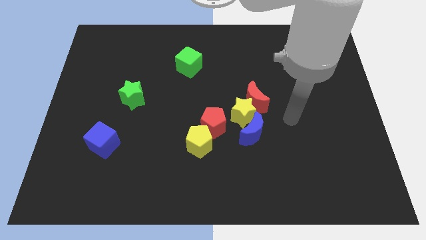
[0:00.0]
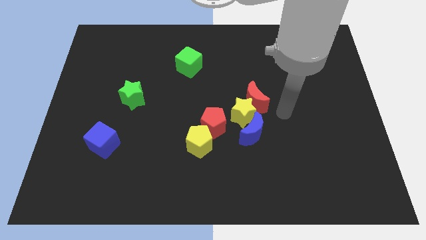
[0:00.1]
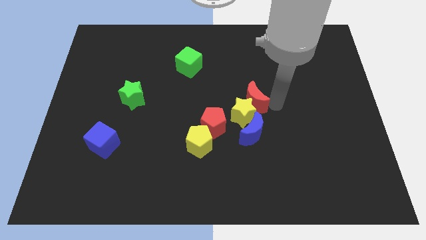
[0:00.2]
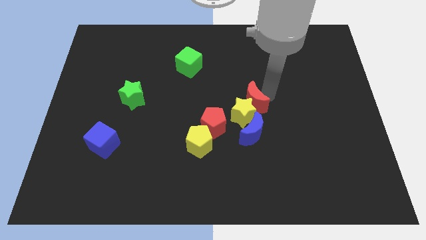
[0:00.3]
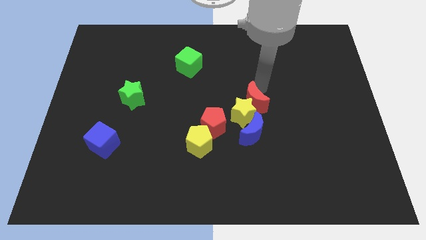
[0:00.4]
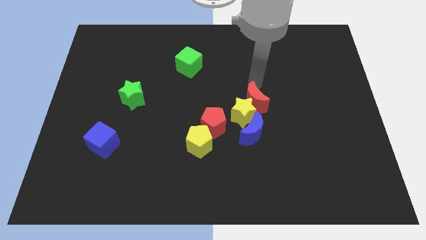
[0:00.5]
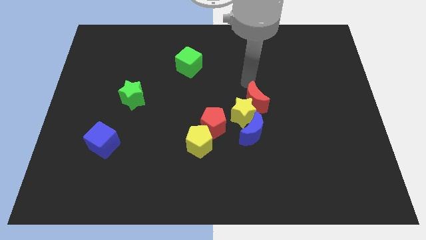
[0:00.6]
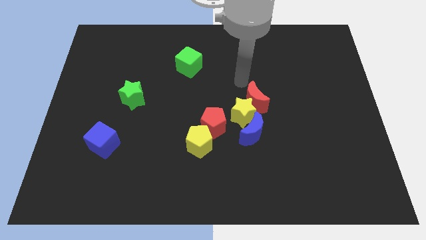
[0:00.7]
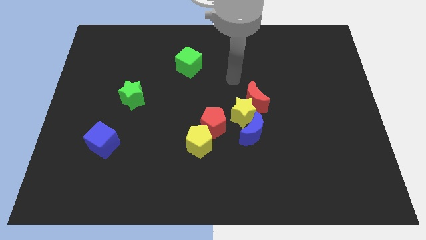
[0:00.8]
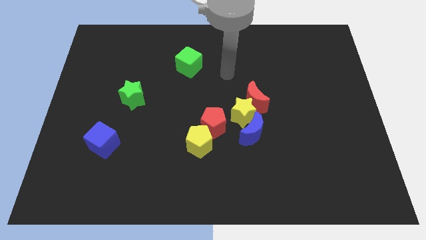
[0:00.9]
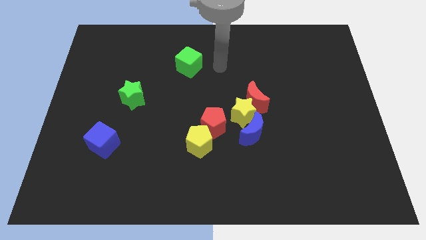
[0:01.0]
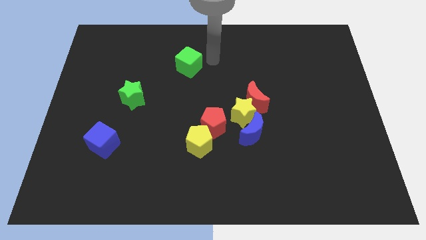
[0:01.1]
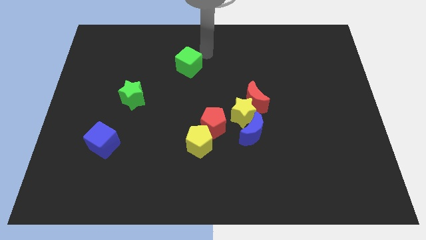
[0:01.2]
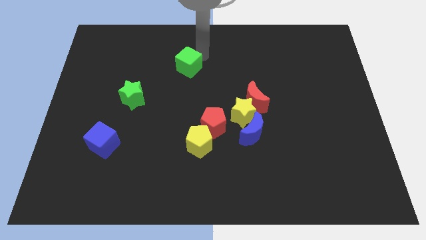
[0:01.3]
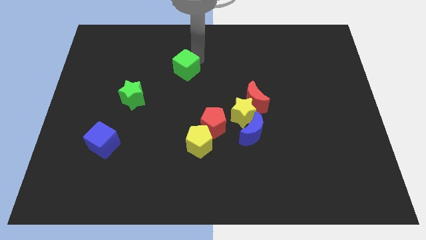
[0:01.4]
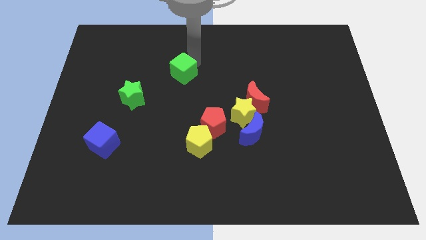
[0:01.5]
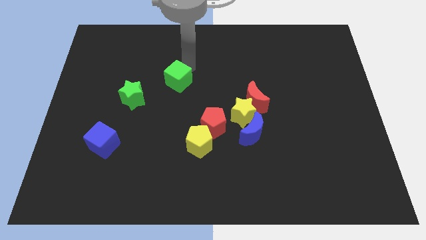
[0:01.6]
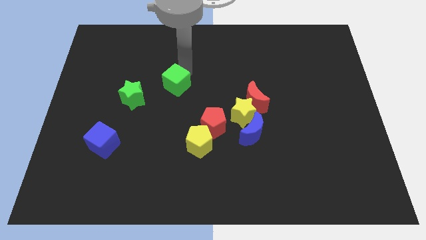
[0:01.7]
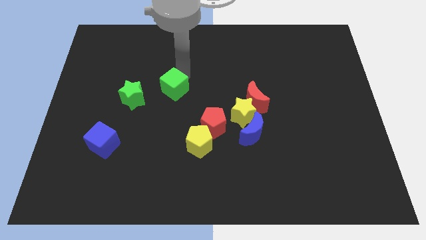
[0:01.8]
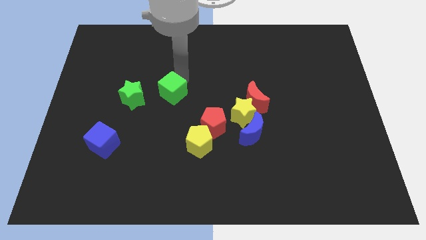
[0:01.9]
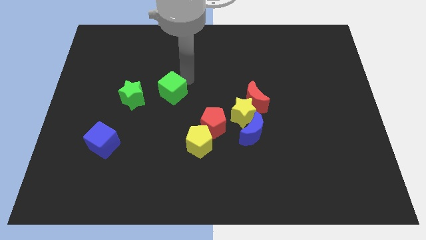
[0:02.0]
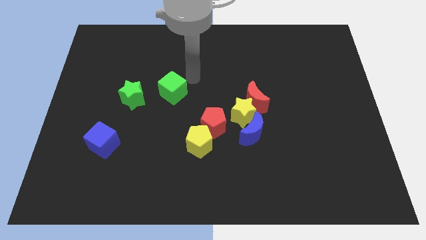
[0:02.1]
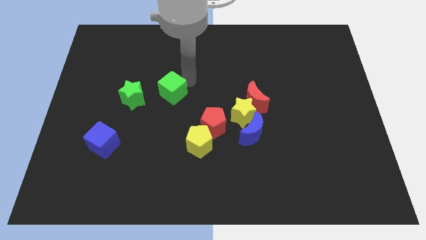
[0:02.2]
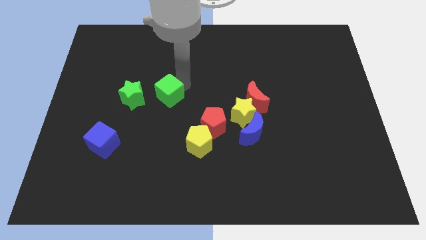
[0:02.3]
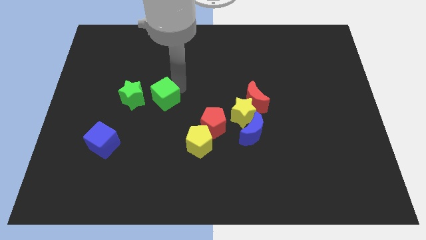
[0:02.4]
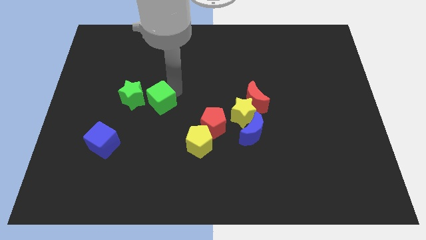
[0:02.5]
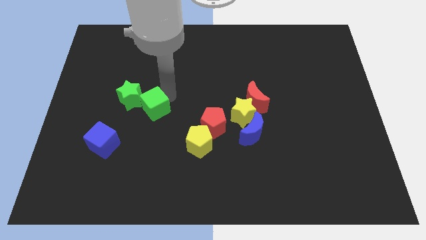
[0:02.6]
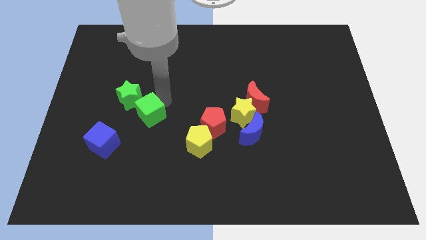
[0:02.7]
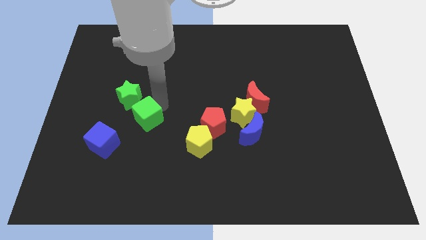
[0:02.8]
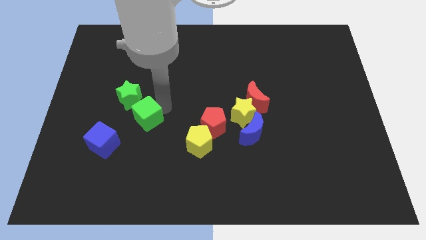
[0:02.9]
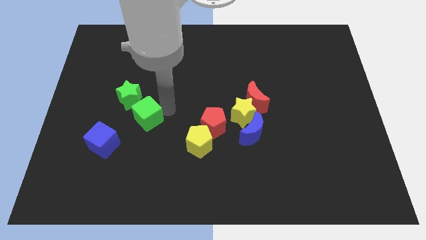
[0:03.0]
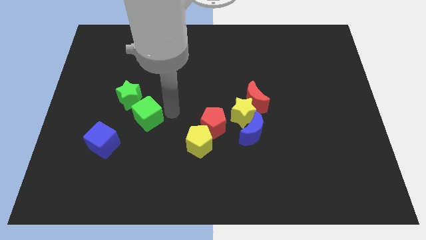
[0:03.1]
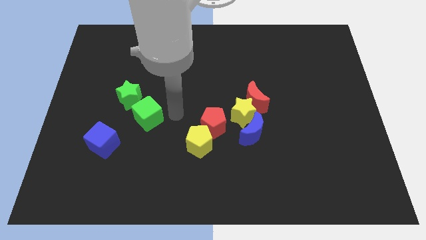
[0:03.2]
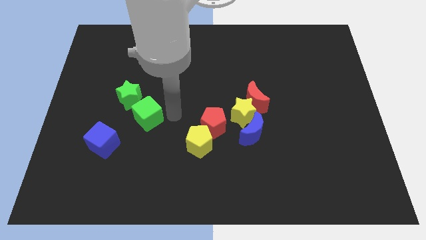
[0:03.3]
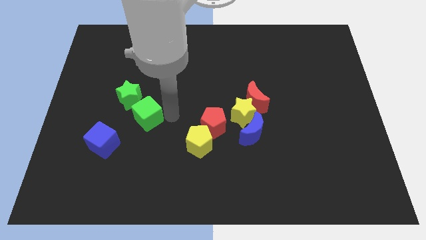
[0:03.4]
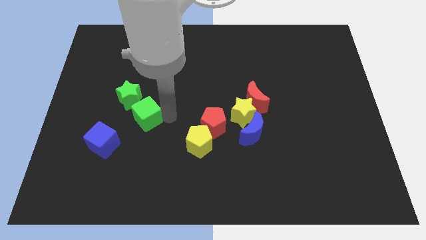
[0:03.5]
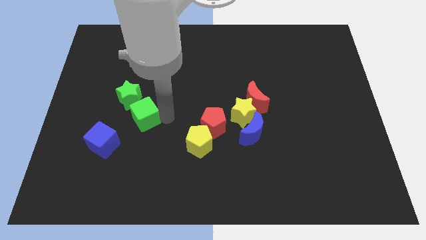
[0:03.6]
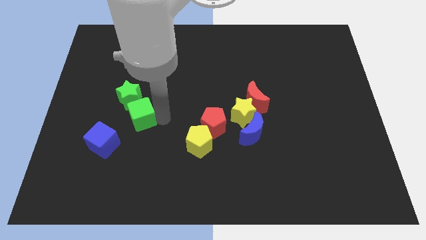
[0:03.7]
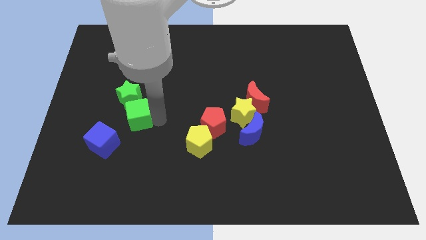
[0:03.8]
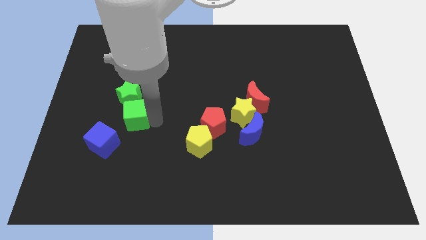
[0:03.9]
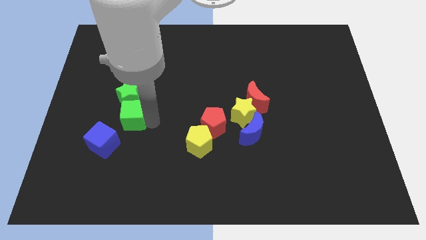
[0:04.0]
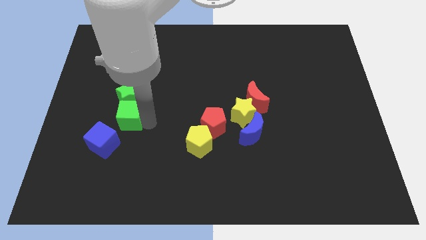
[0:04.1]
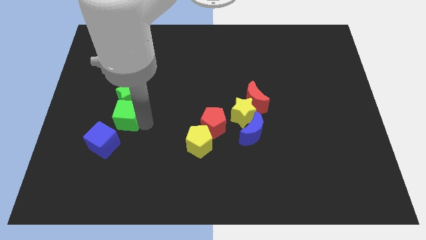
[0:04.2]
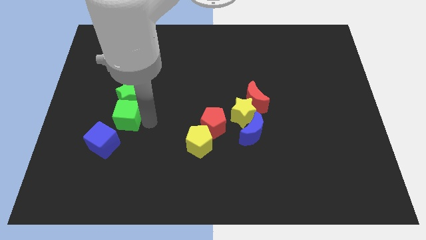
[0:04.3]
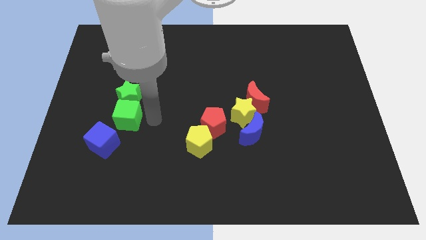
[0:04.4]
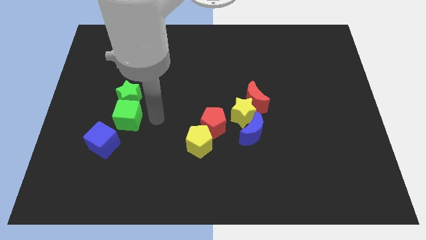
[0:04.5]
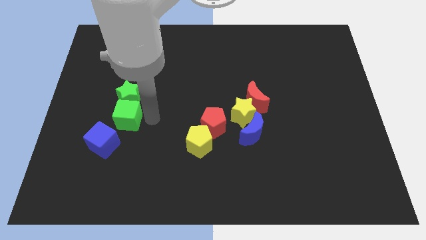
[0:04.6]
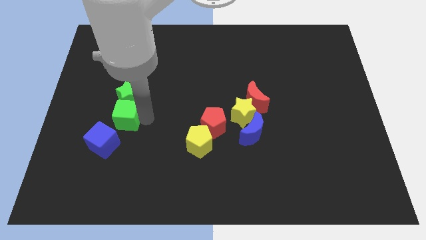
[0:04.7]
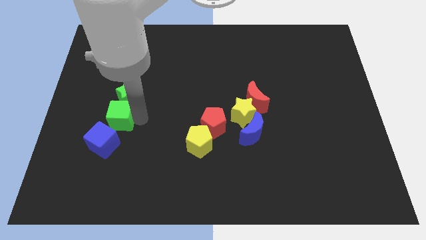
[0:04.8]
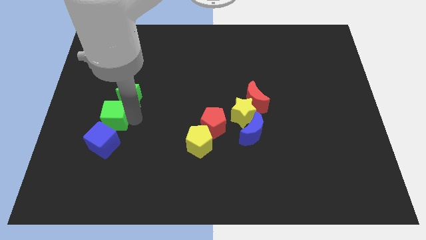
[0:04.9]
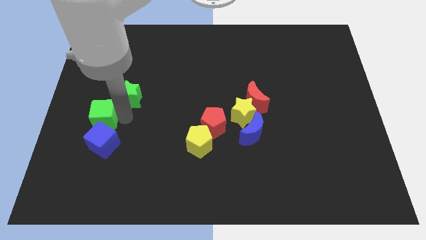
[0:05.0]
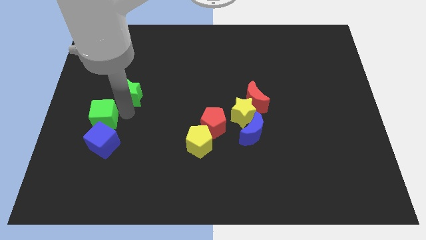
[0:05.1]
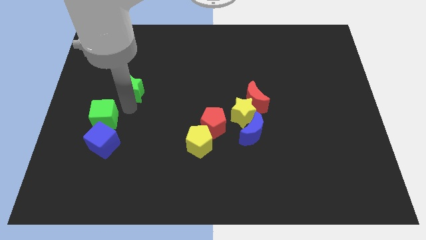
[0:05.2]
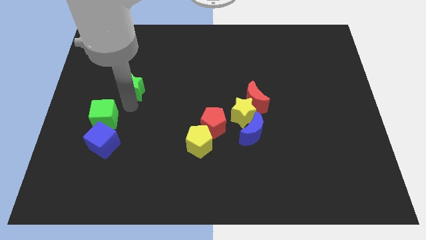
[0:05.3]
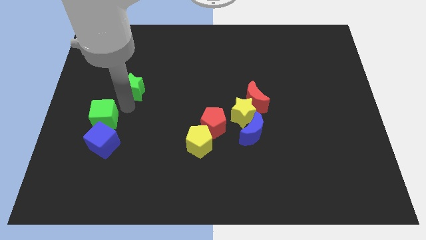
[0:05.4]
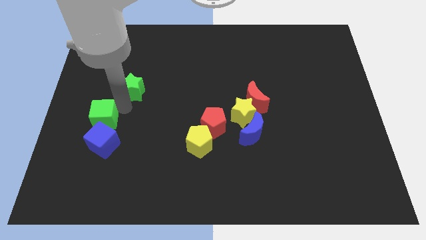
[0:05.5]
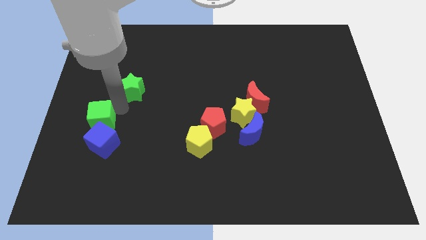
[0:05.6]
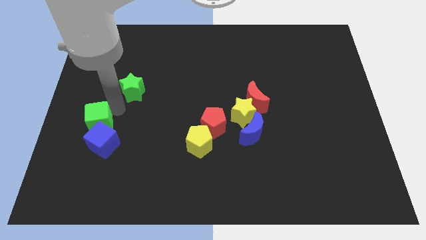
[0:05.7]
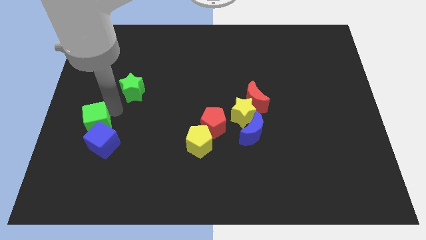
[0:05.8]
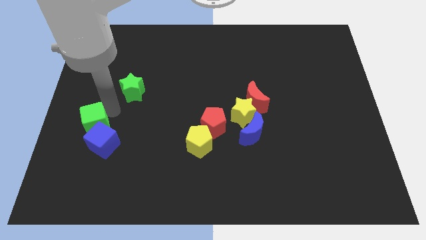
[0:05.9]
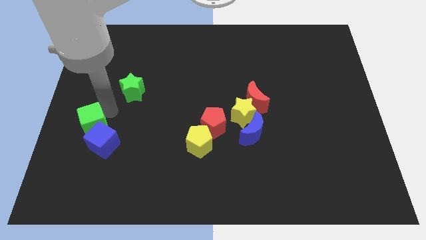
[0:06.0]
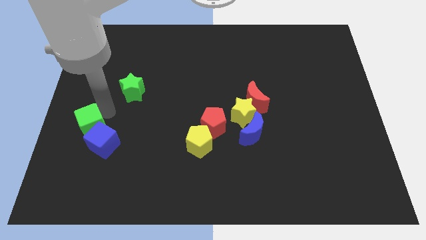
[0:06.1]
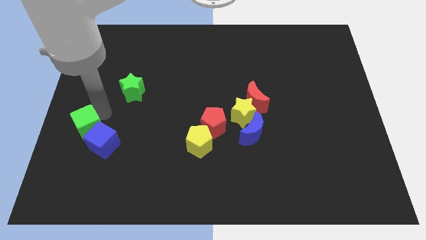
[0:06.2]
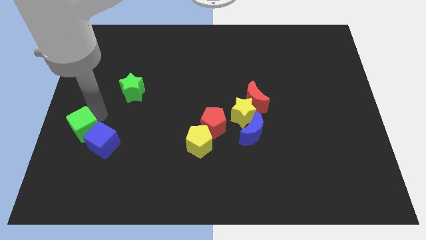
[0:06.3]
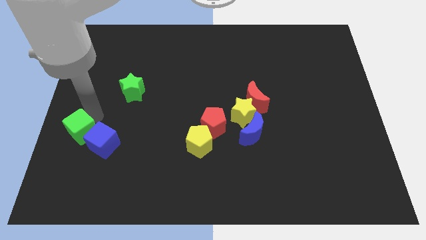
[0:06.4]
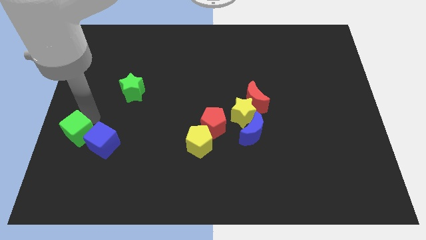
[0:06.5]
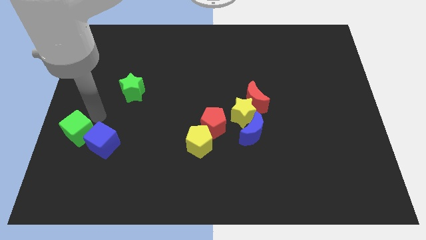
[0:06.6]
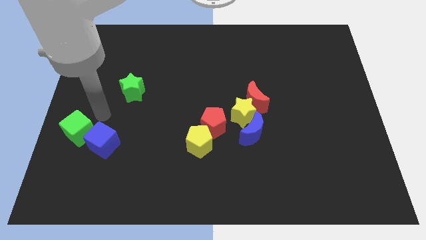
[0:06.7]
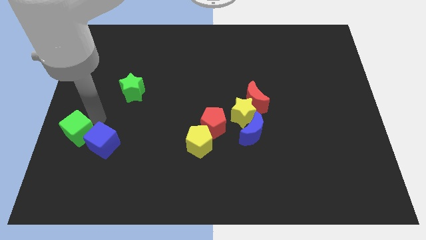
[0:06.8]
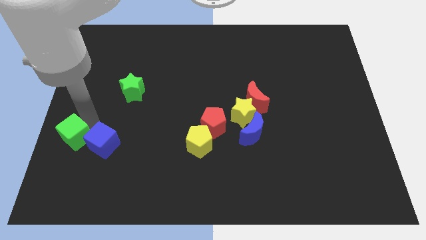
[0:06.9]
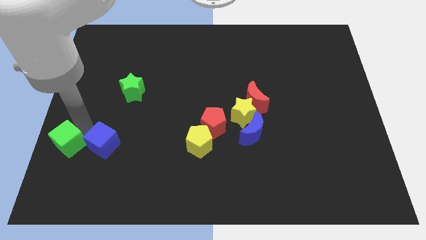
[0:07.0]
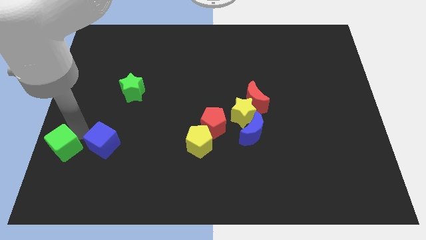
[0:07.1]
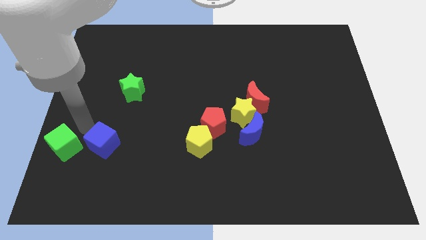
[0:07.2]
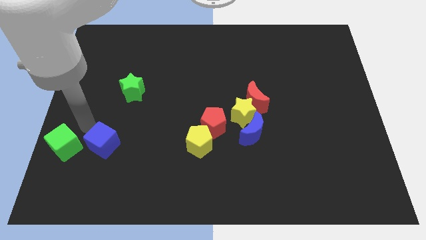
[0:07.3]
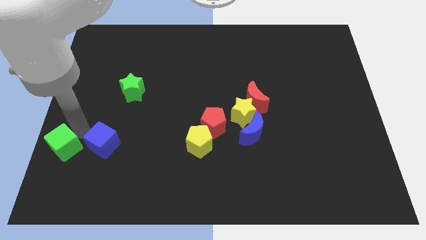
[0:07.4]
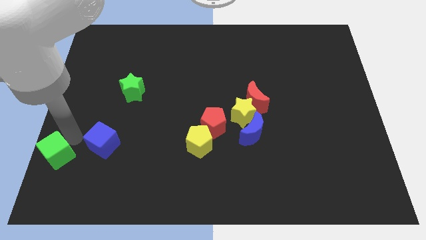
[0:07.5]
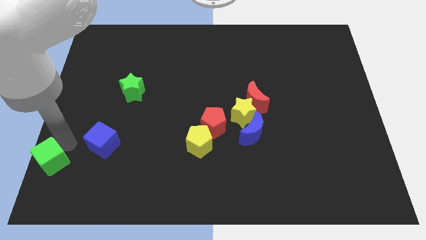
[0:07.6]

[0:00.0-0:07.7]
put the green cube to the bottom left
